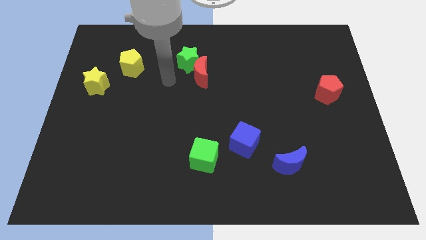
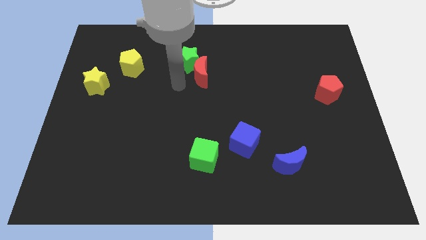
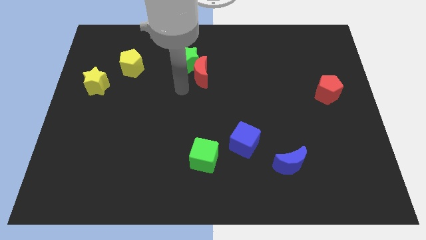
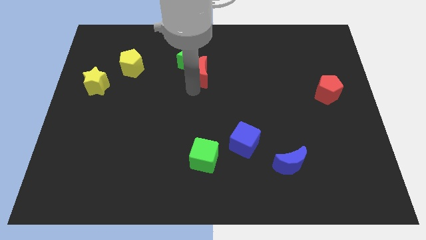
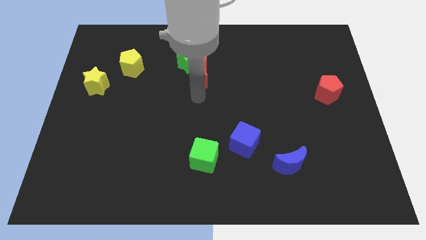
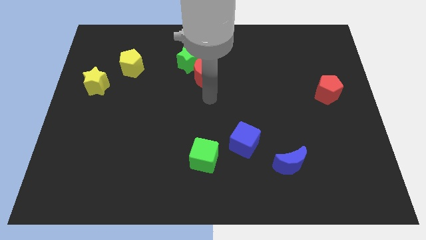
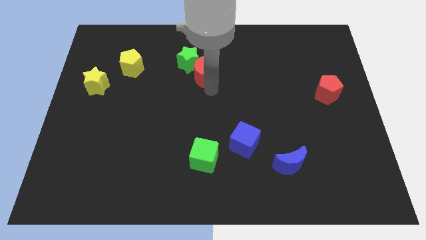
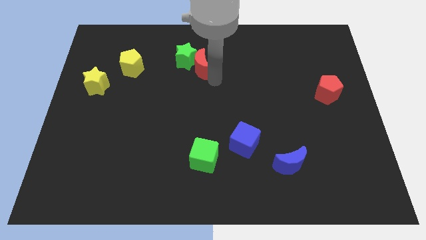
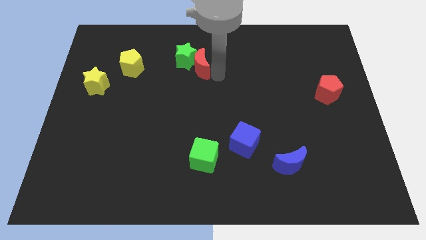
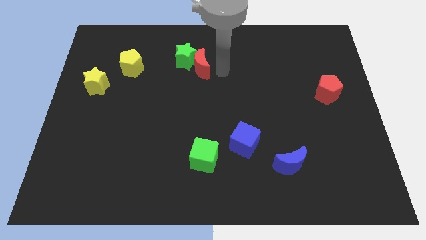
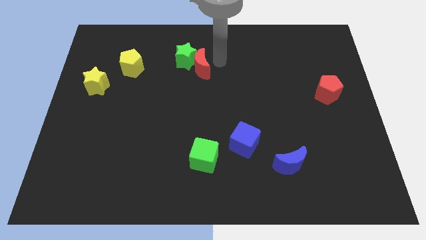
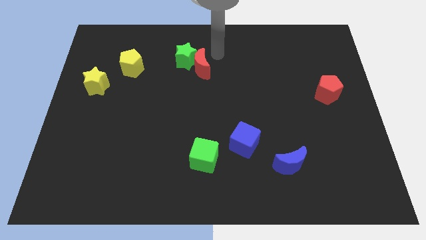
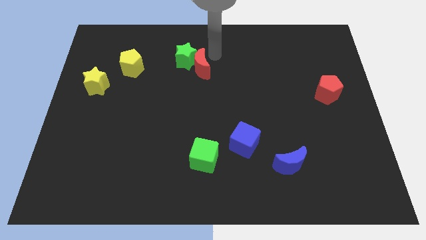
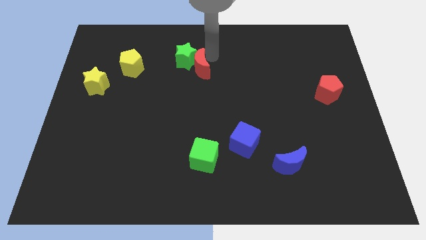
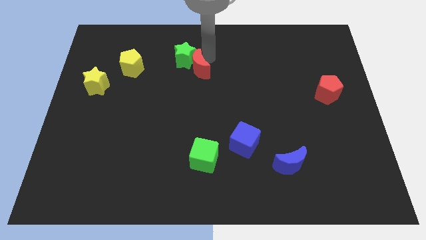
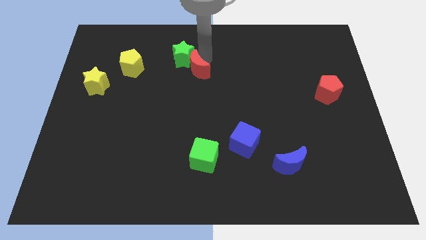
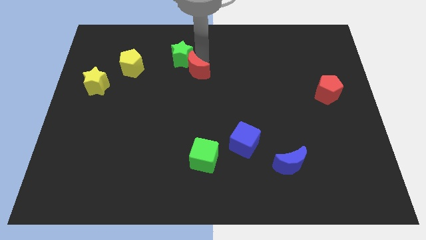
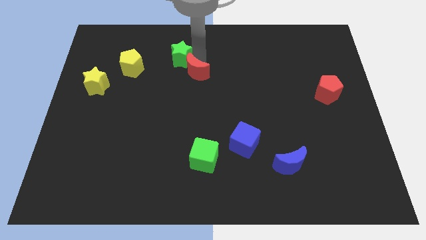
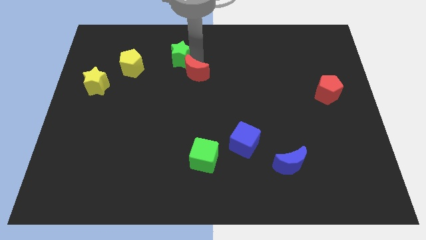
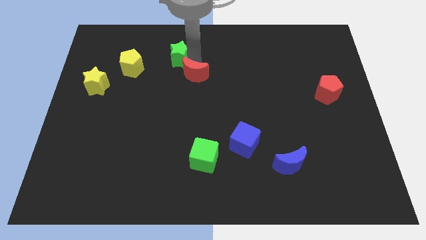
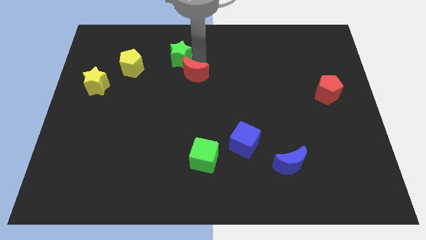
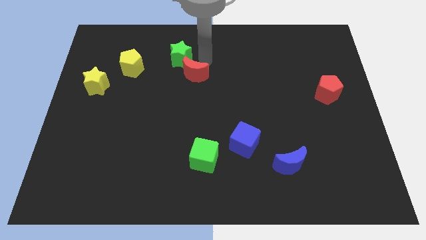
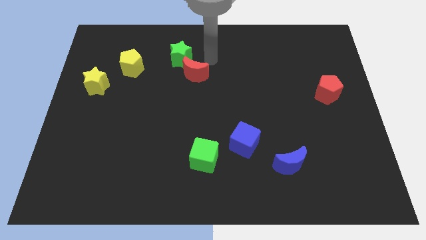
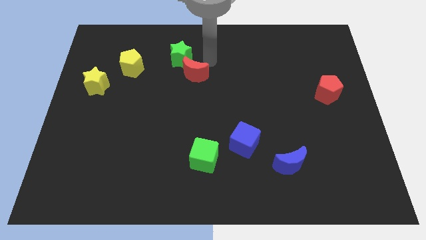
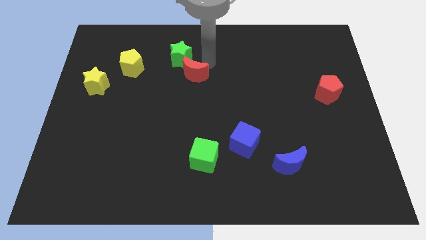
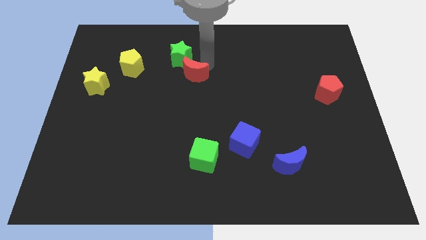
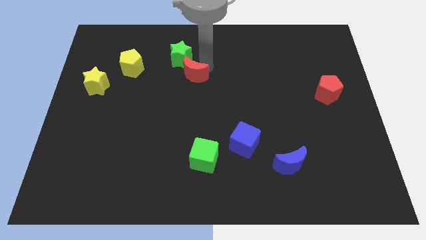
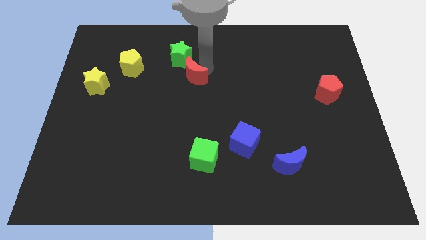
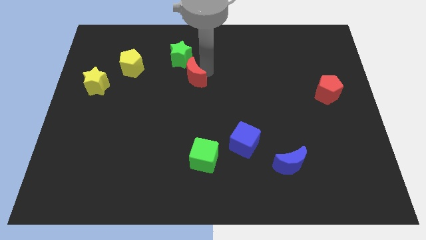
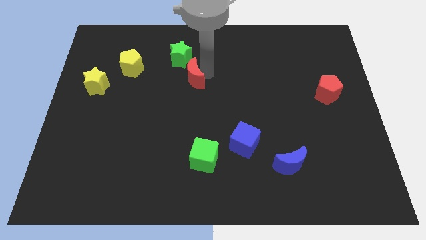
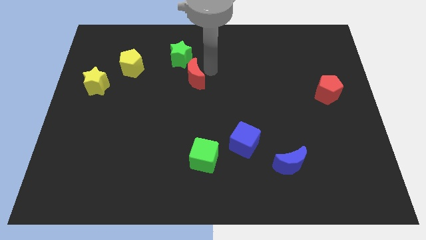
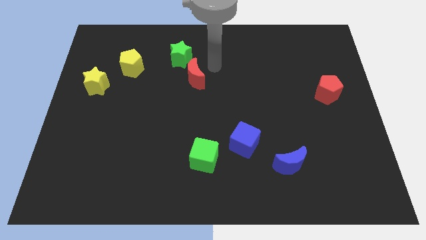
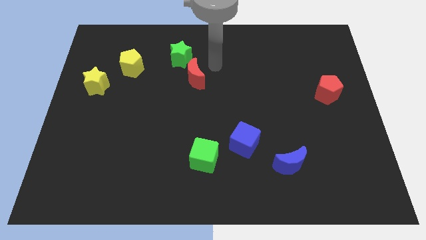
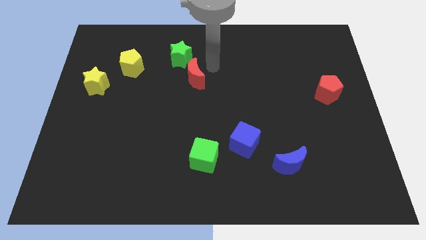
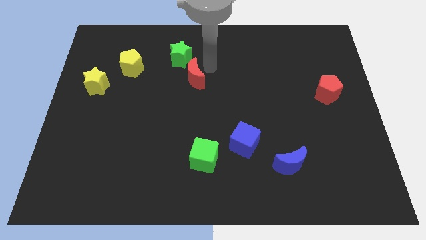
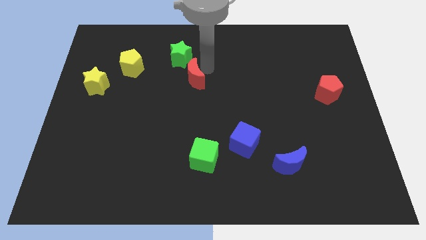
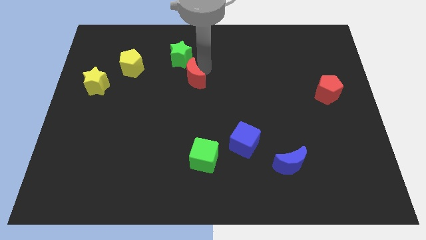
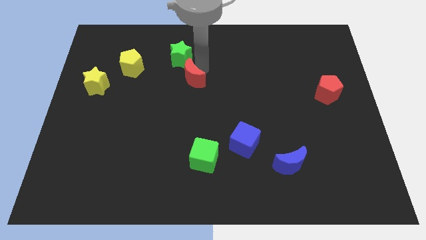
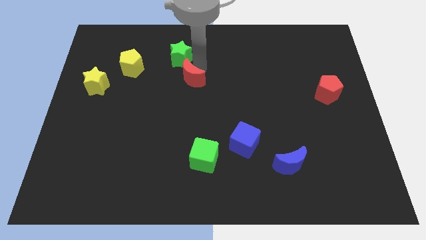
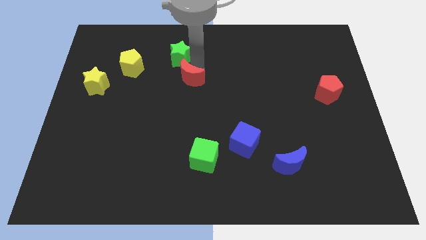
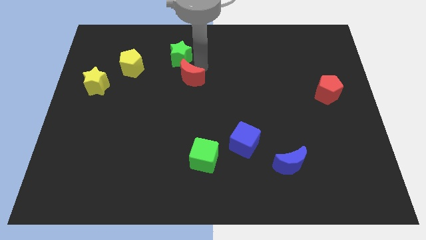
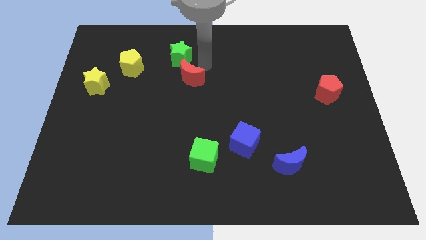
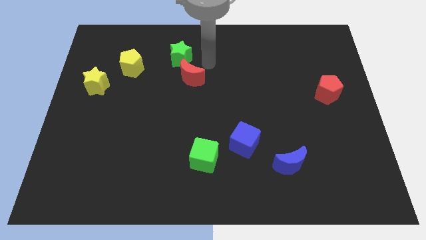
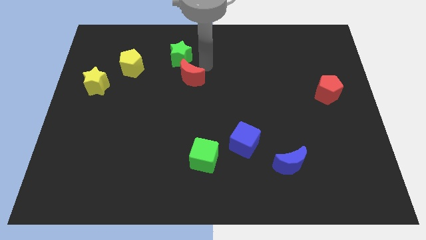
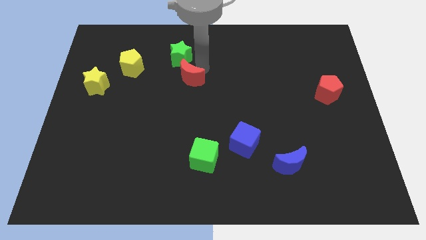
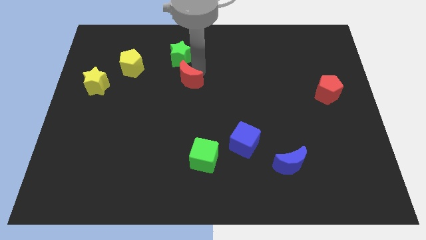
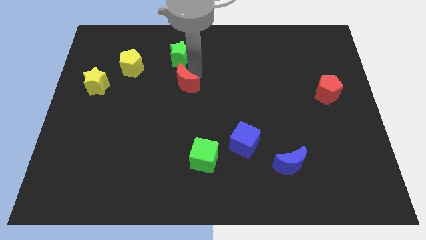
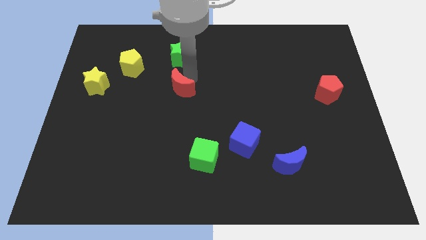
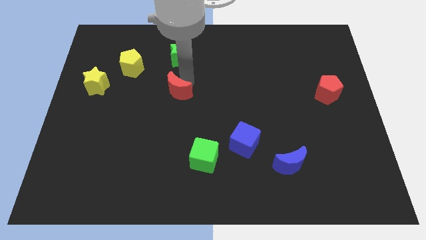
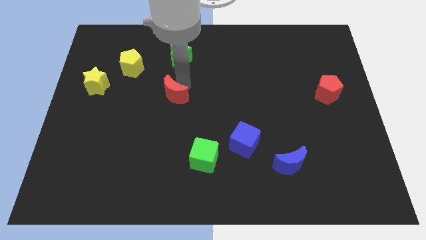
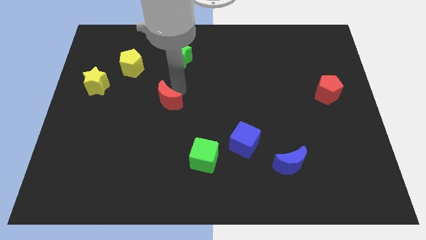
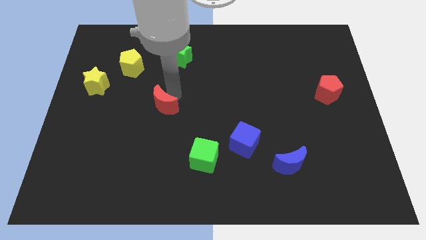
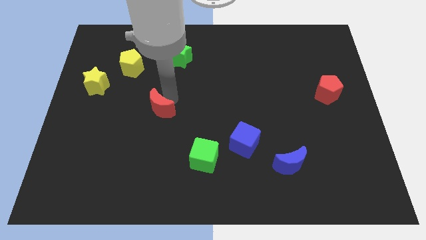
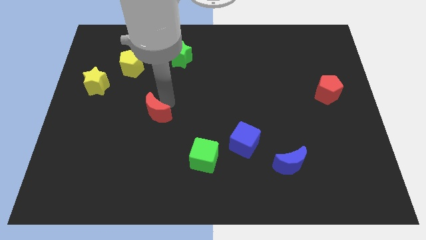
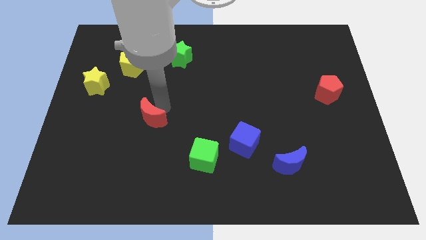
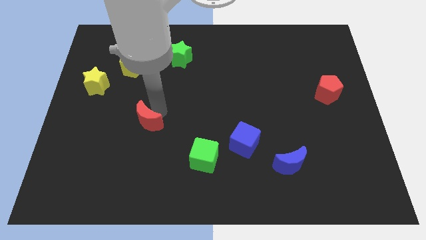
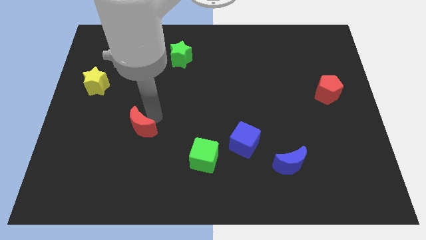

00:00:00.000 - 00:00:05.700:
push the red moon diagonally down and to the left

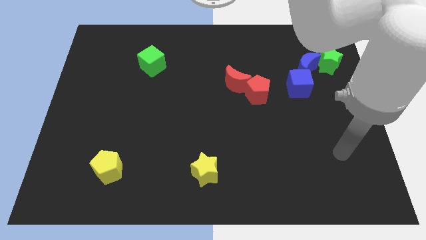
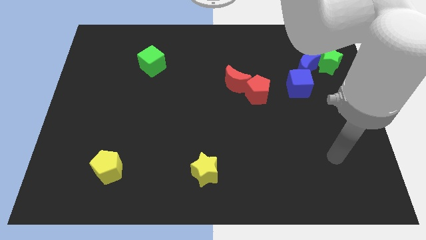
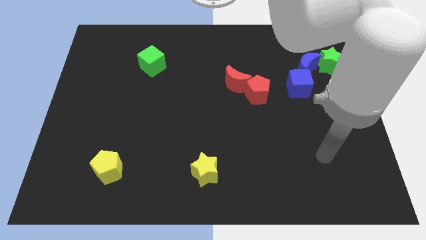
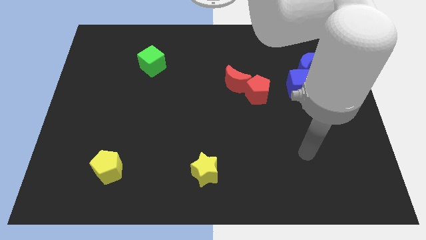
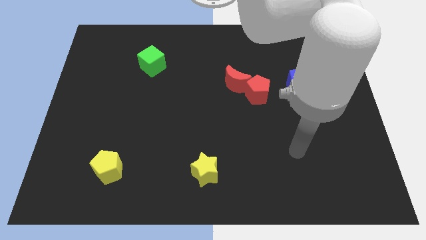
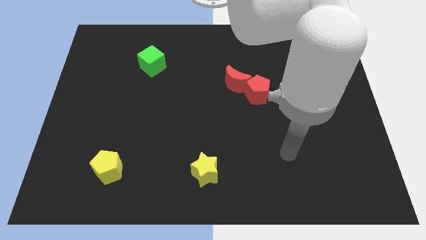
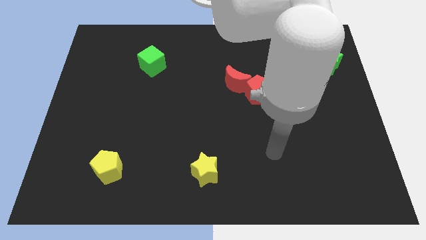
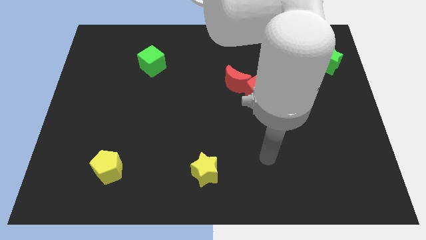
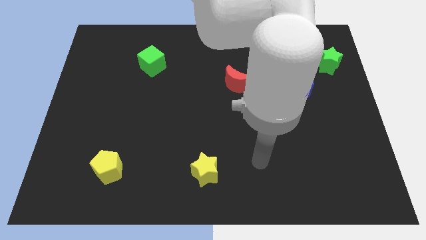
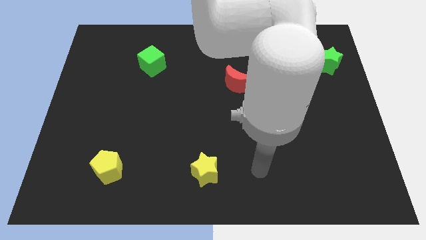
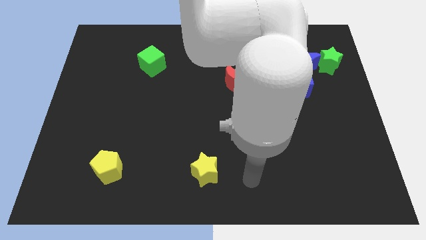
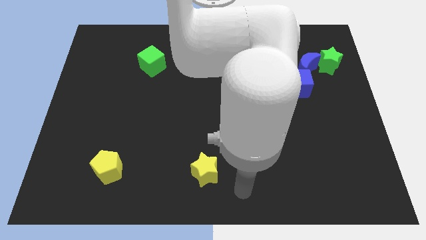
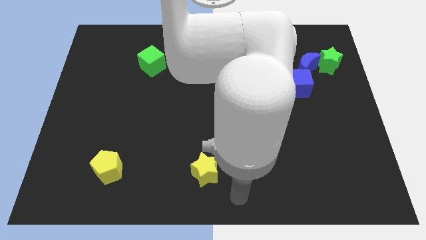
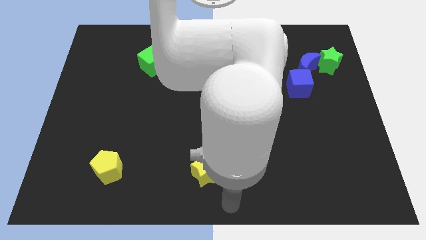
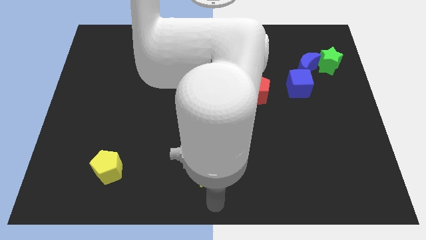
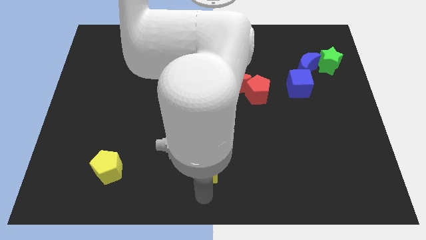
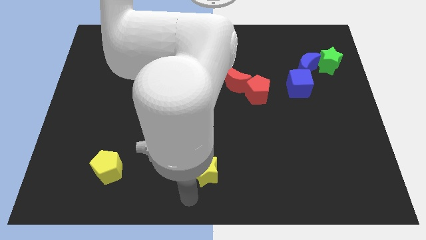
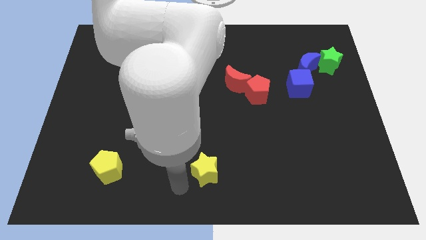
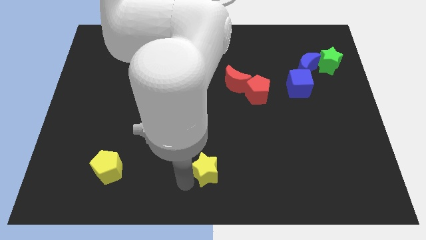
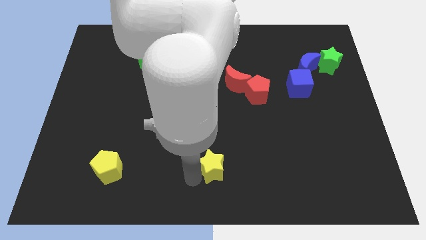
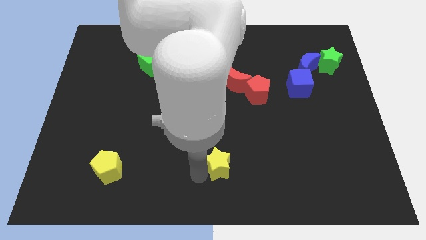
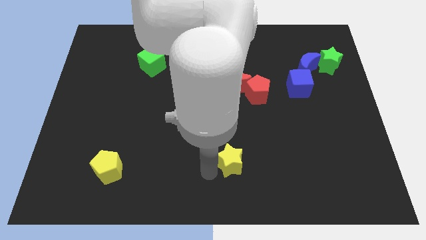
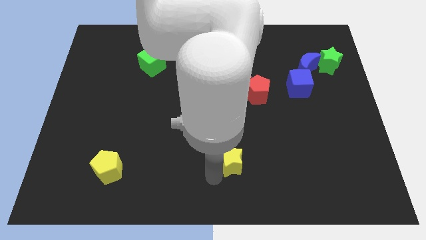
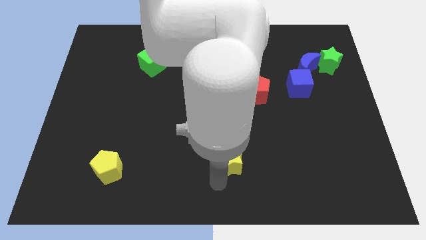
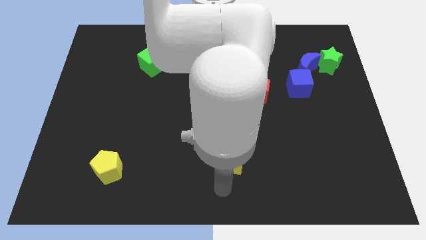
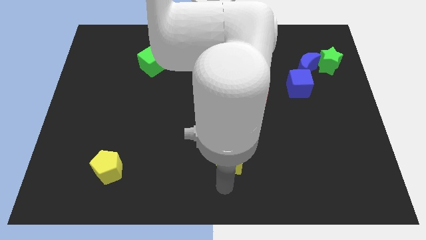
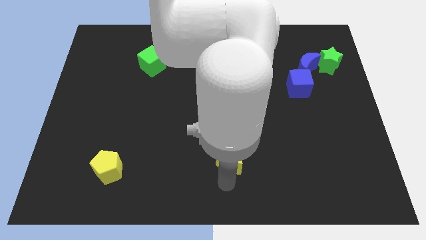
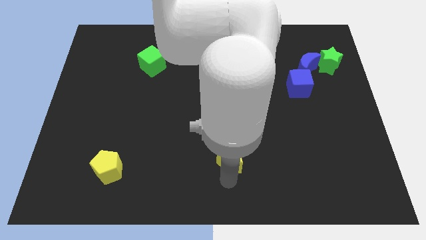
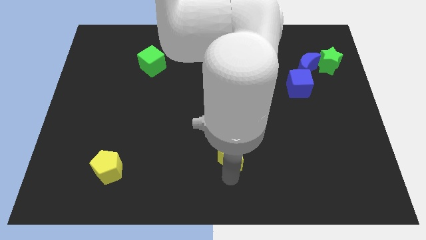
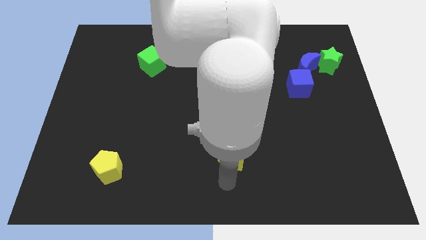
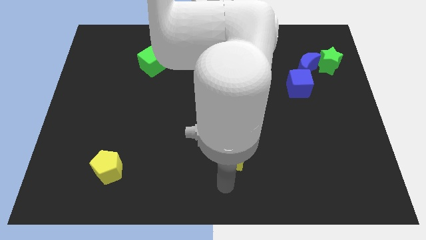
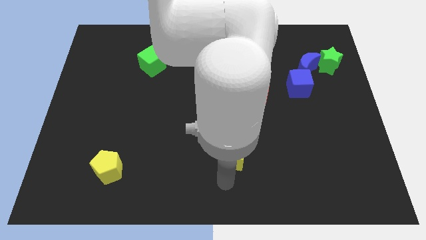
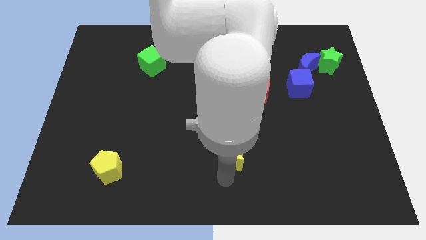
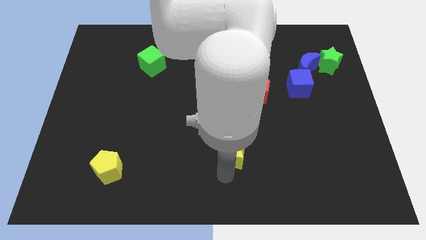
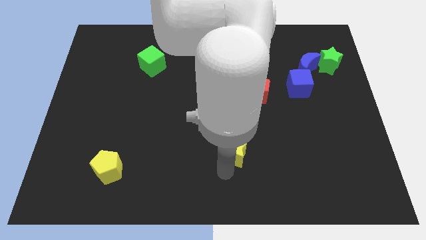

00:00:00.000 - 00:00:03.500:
push the yellow star diagonally up and right a little bit
